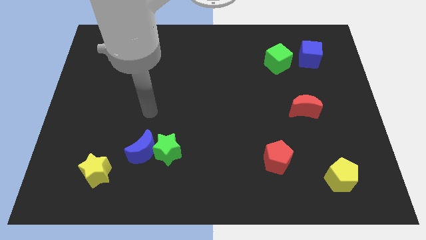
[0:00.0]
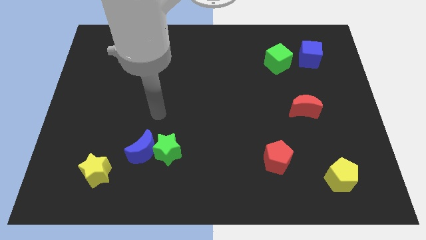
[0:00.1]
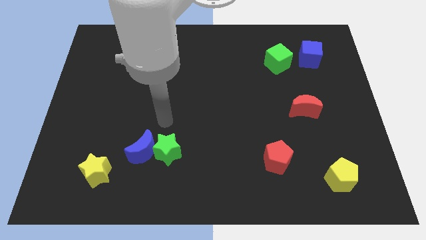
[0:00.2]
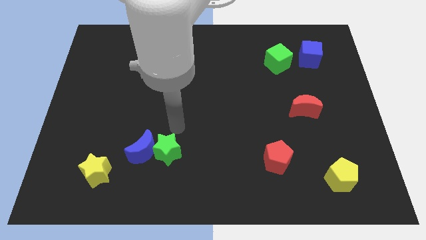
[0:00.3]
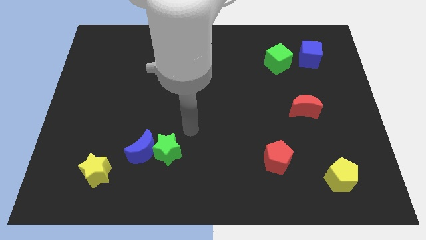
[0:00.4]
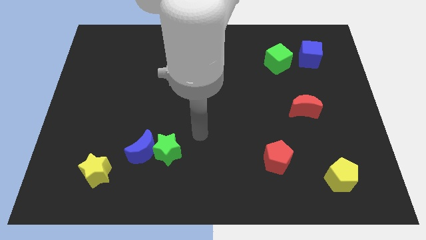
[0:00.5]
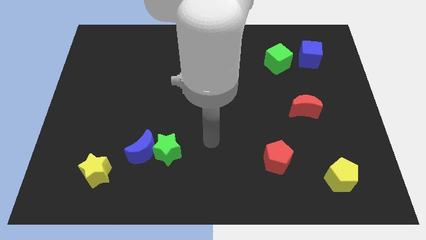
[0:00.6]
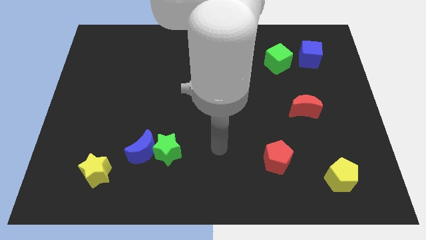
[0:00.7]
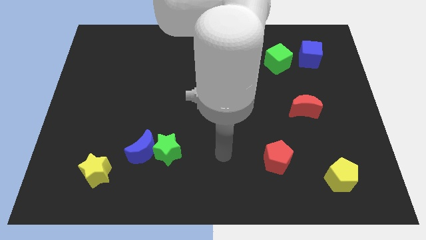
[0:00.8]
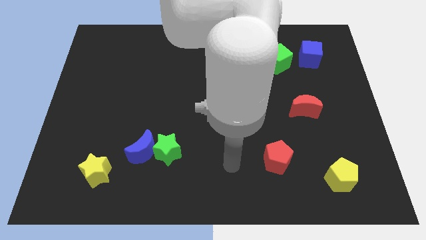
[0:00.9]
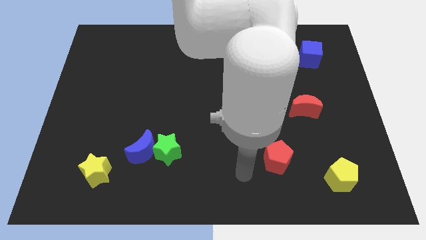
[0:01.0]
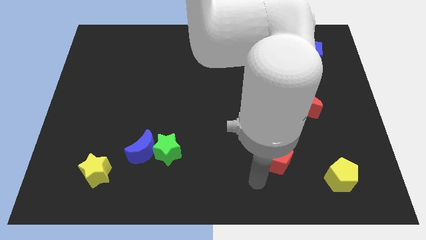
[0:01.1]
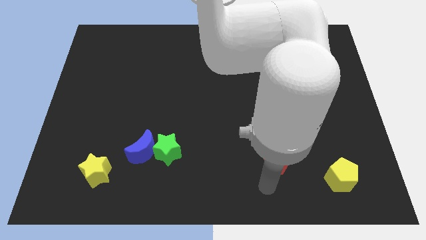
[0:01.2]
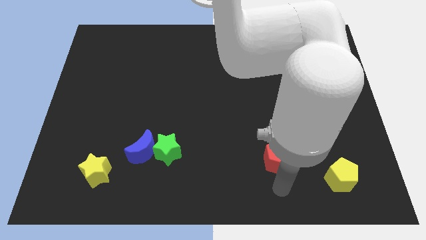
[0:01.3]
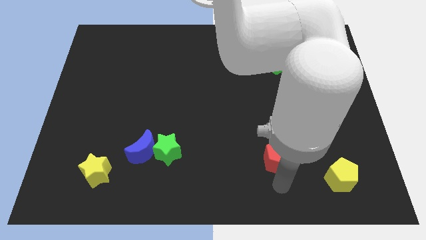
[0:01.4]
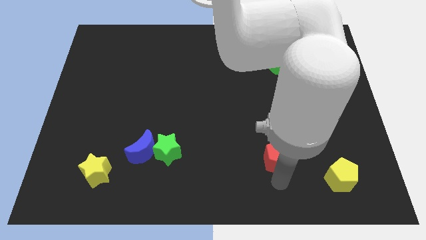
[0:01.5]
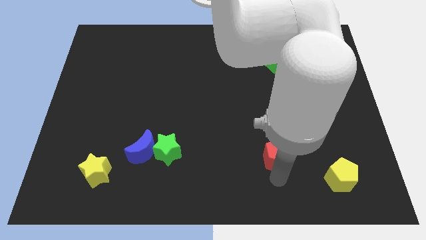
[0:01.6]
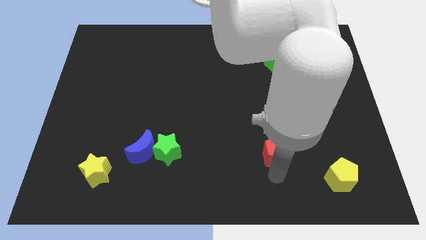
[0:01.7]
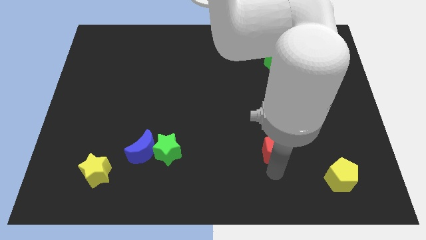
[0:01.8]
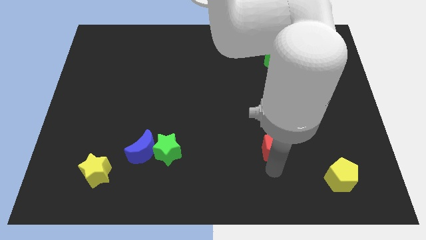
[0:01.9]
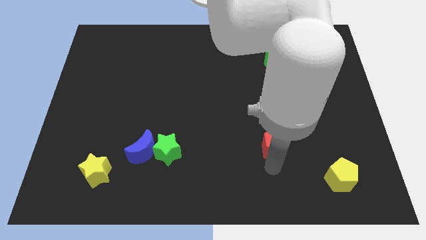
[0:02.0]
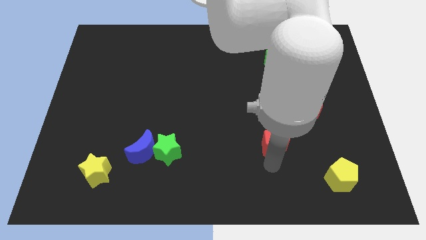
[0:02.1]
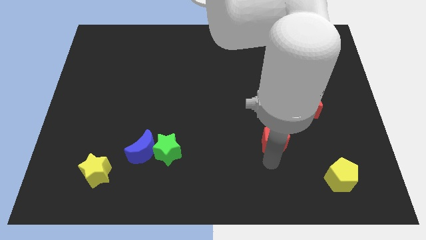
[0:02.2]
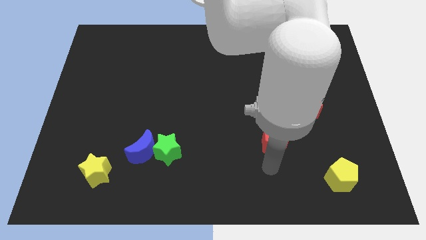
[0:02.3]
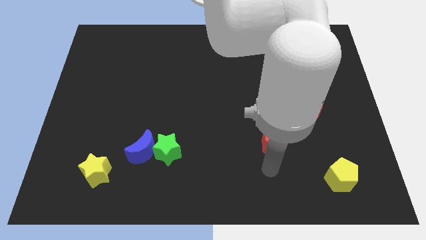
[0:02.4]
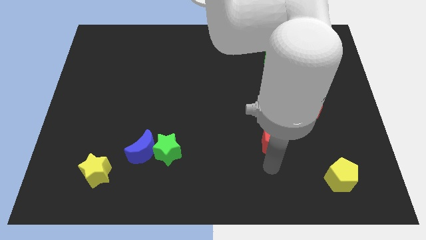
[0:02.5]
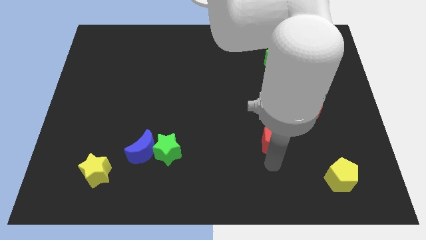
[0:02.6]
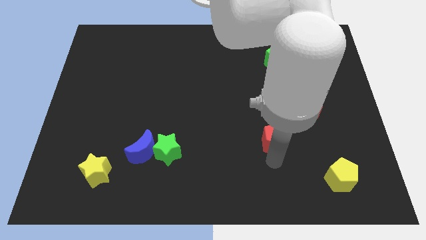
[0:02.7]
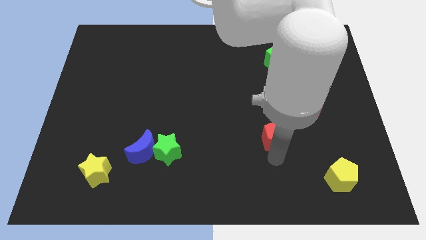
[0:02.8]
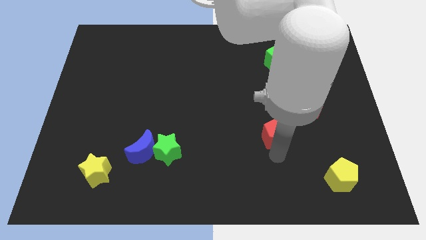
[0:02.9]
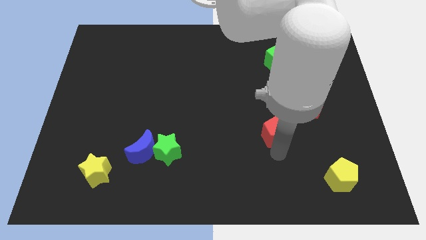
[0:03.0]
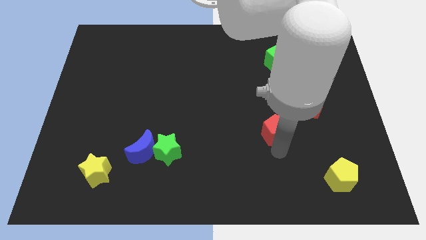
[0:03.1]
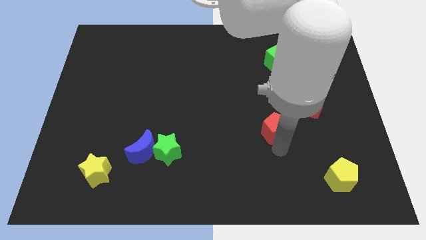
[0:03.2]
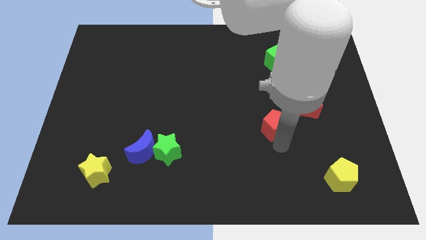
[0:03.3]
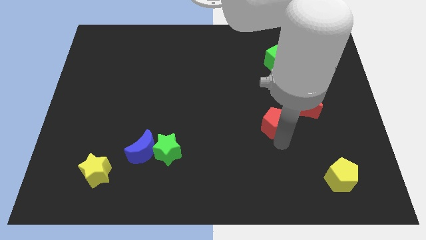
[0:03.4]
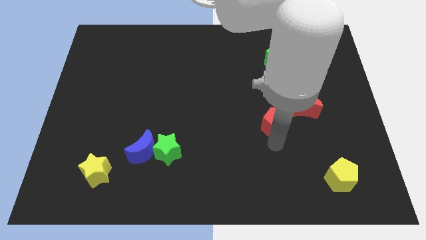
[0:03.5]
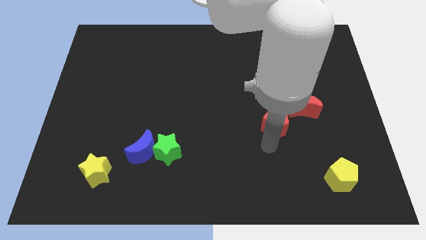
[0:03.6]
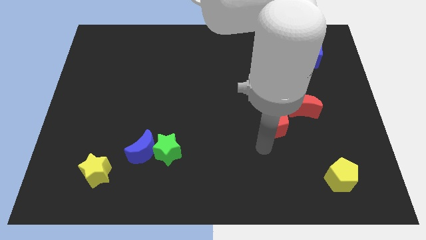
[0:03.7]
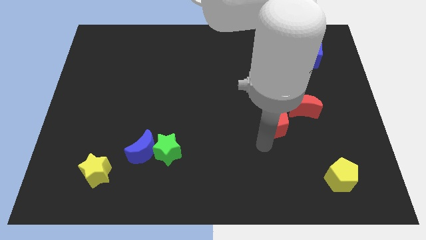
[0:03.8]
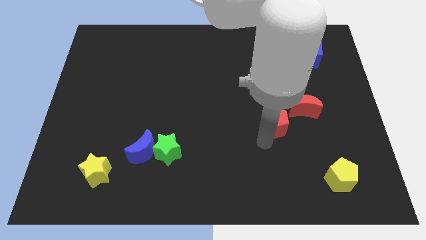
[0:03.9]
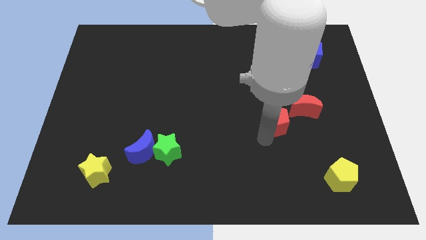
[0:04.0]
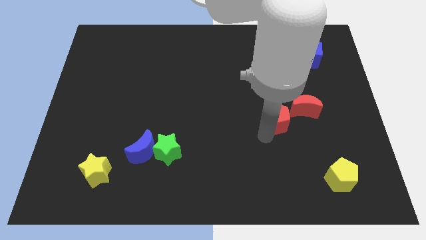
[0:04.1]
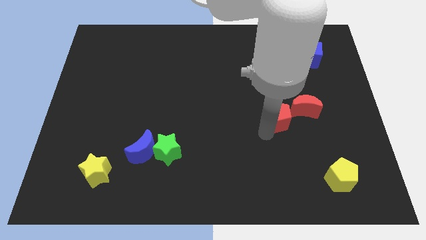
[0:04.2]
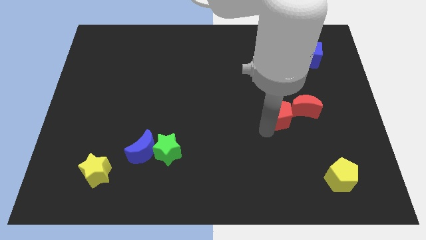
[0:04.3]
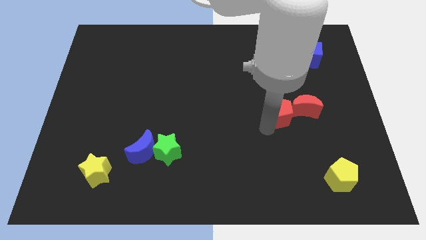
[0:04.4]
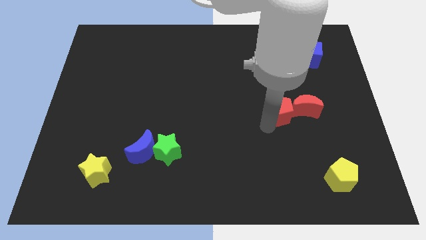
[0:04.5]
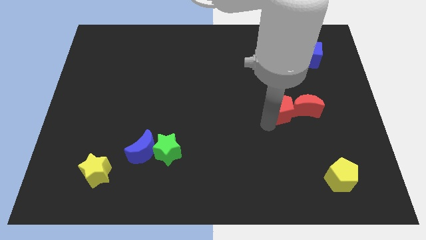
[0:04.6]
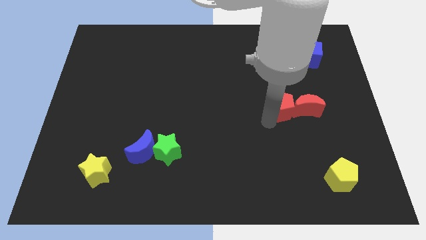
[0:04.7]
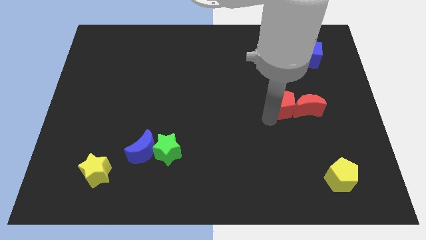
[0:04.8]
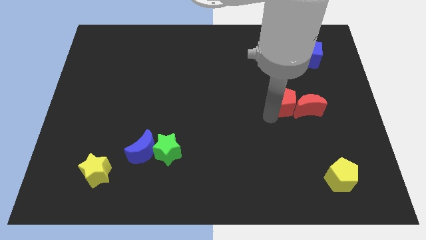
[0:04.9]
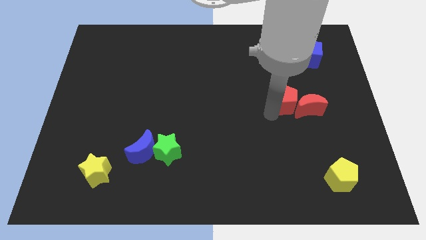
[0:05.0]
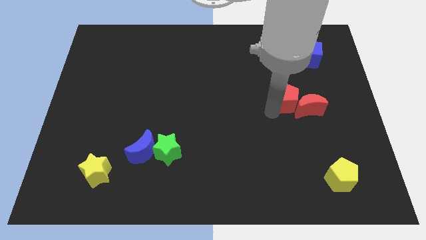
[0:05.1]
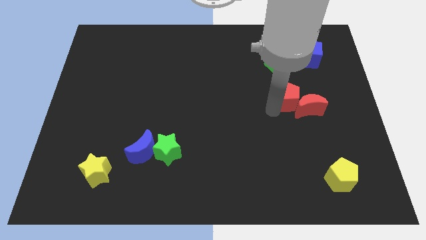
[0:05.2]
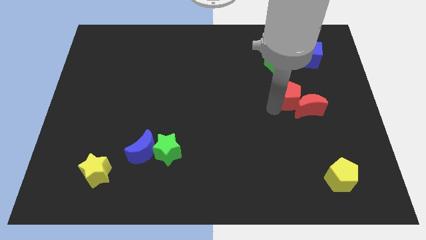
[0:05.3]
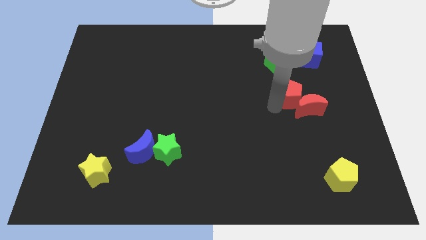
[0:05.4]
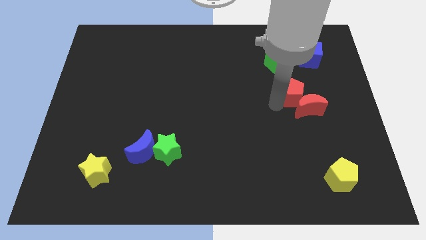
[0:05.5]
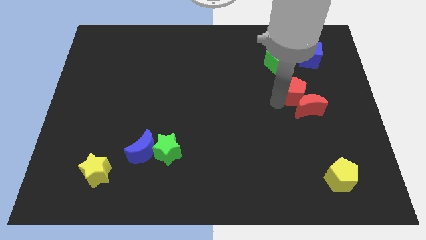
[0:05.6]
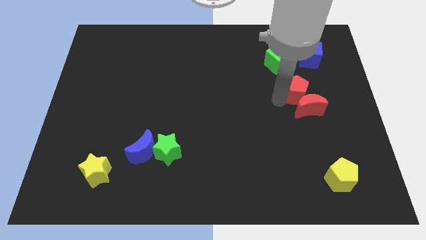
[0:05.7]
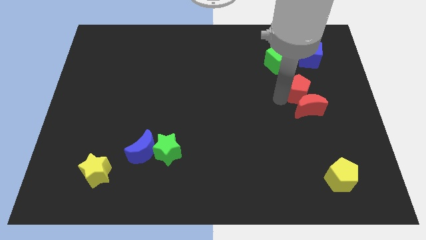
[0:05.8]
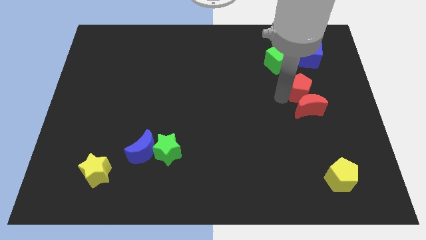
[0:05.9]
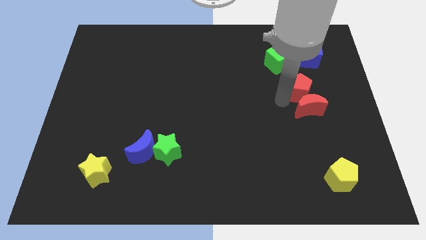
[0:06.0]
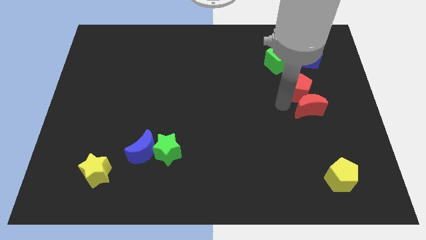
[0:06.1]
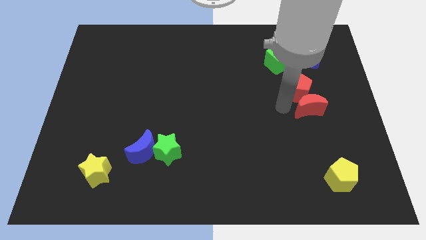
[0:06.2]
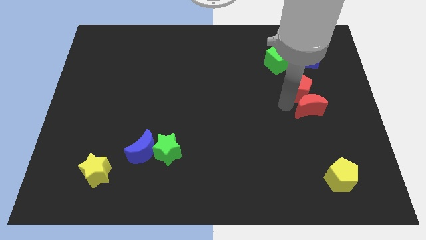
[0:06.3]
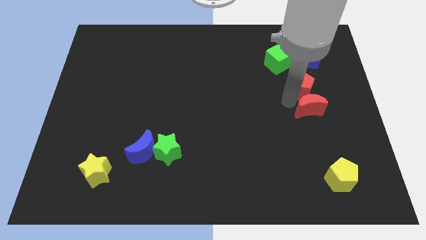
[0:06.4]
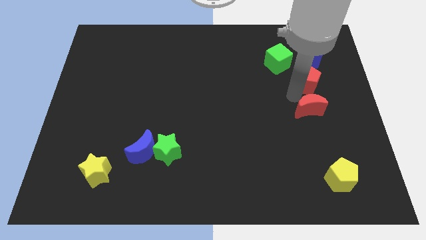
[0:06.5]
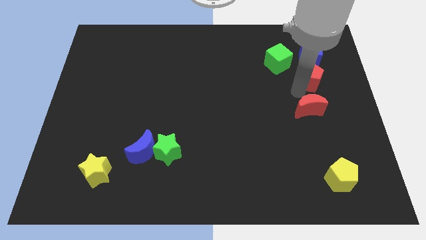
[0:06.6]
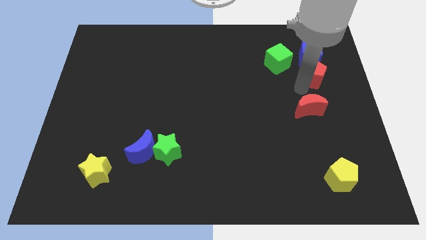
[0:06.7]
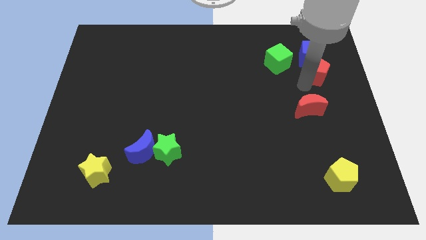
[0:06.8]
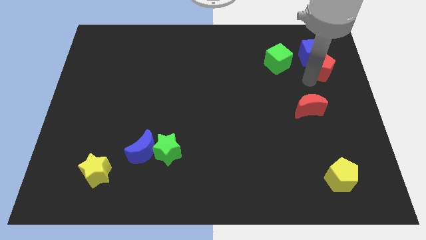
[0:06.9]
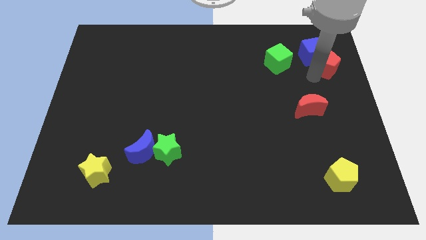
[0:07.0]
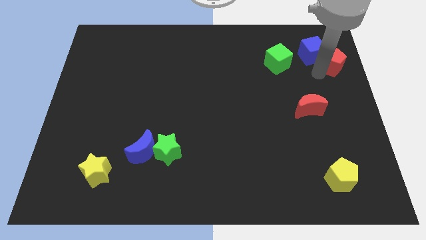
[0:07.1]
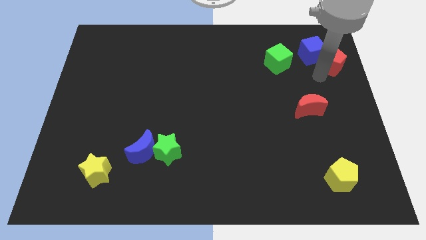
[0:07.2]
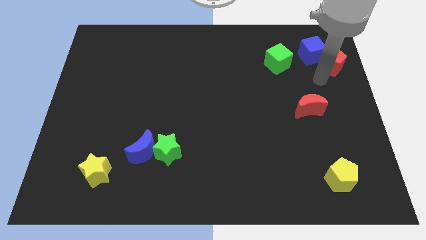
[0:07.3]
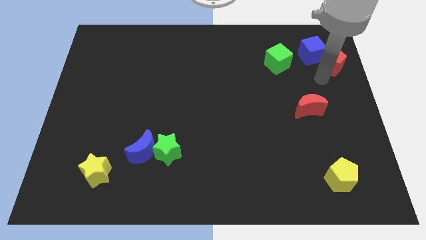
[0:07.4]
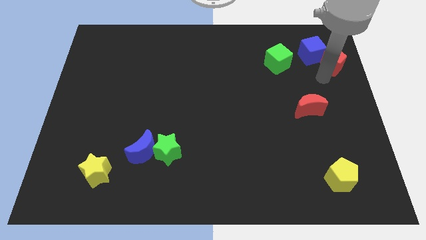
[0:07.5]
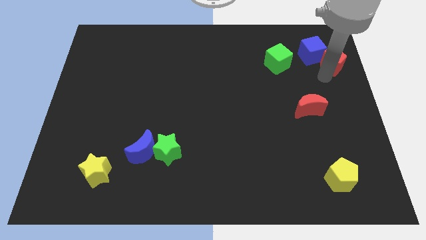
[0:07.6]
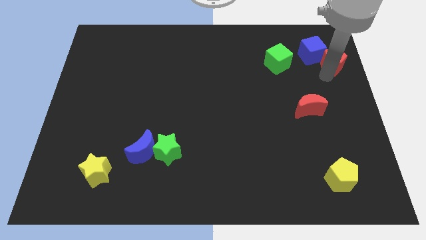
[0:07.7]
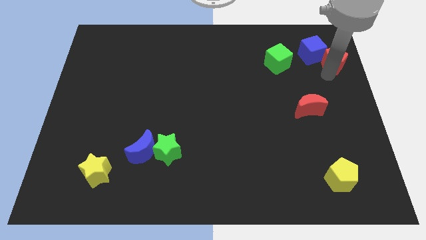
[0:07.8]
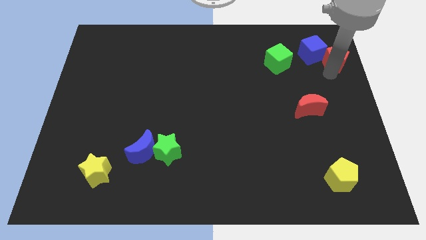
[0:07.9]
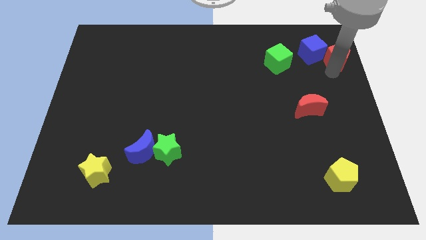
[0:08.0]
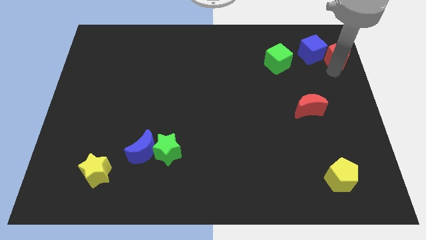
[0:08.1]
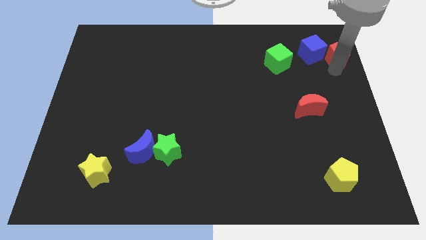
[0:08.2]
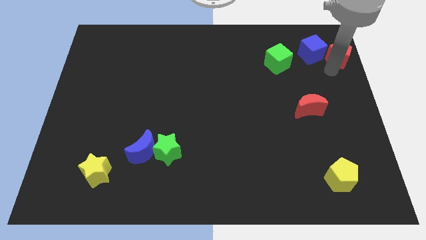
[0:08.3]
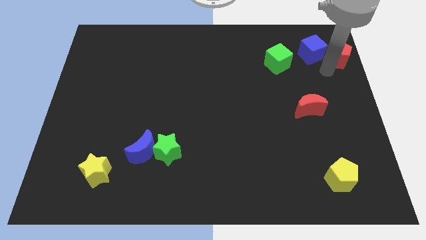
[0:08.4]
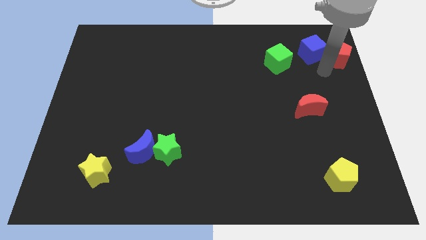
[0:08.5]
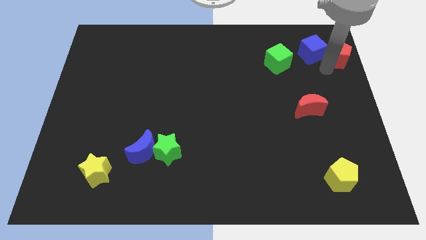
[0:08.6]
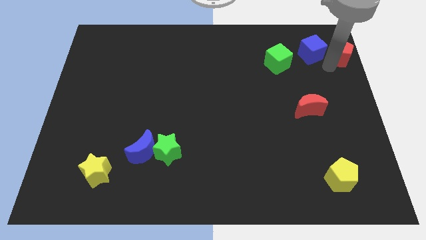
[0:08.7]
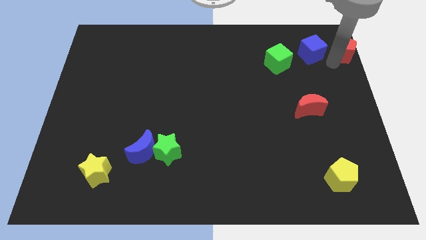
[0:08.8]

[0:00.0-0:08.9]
move the red pentagon to the upper right corner
